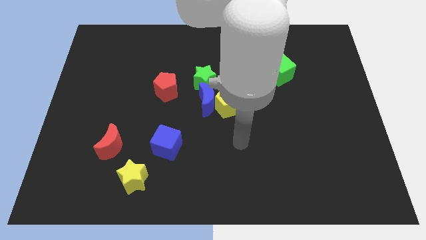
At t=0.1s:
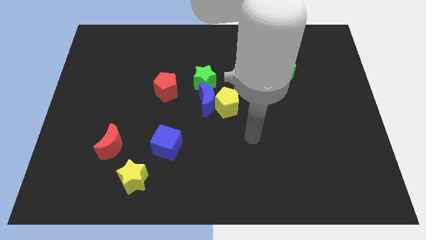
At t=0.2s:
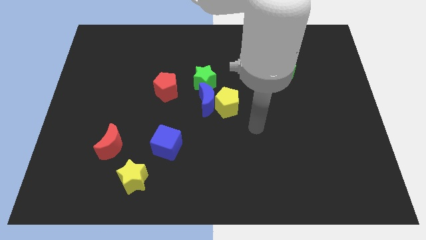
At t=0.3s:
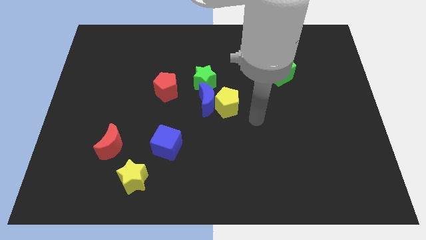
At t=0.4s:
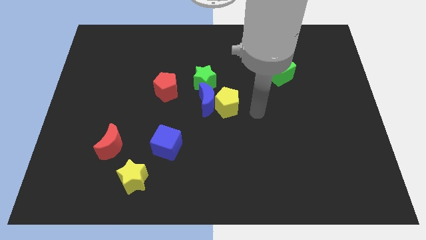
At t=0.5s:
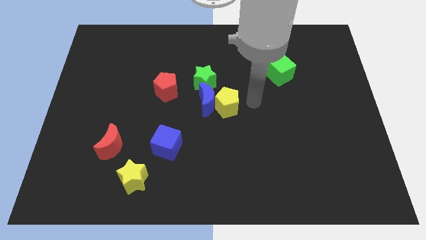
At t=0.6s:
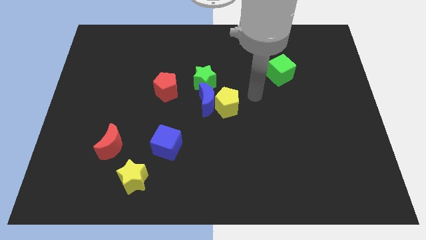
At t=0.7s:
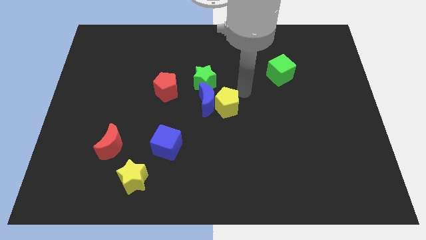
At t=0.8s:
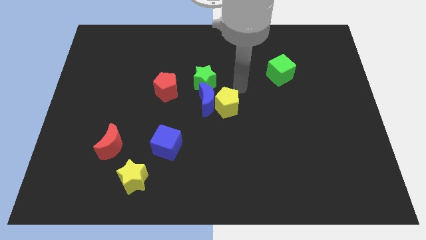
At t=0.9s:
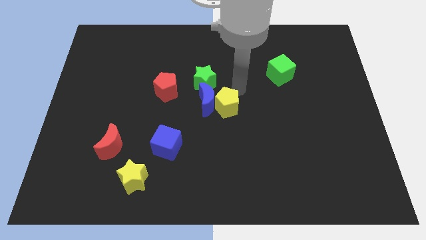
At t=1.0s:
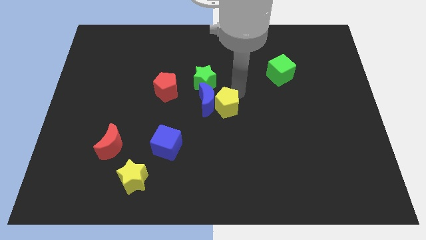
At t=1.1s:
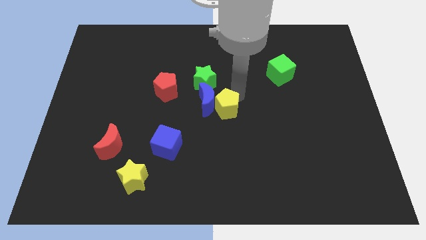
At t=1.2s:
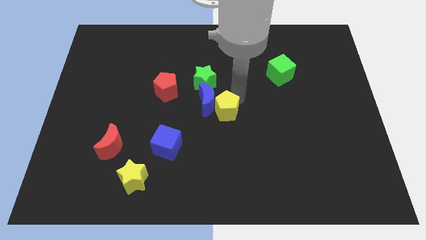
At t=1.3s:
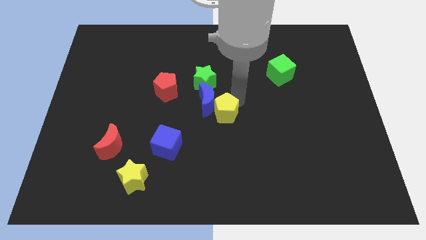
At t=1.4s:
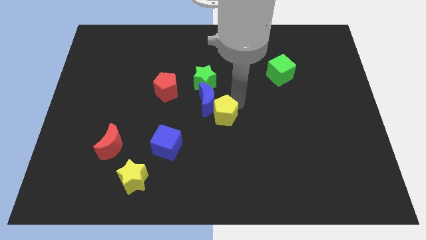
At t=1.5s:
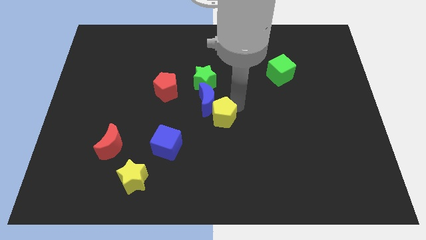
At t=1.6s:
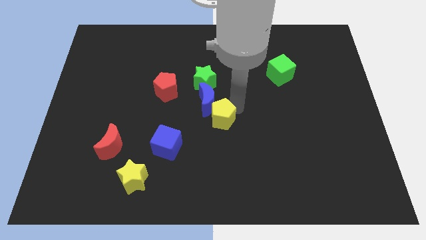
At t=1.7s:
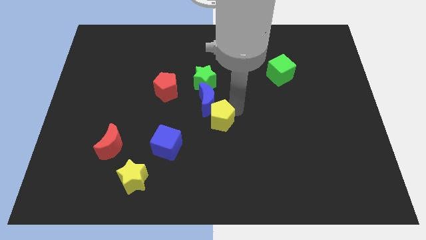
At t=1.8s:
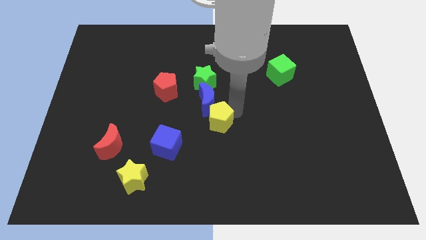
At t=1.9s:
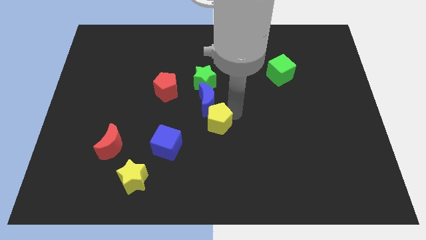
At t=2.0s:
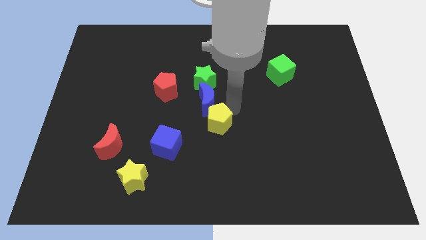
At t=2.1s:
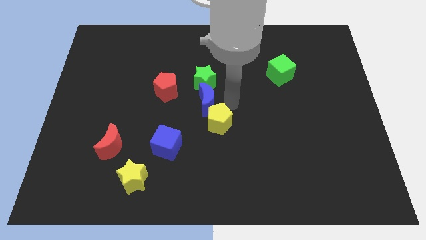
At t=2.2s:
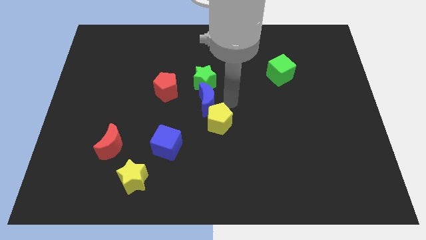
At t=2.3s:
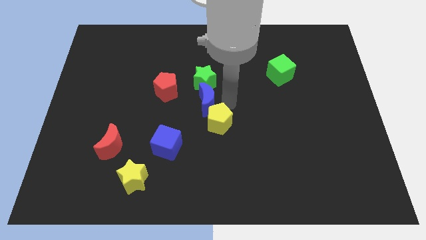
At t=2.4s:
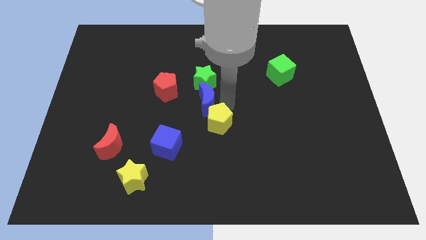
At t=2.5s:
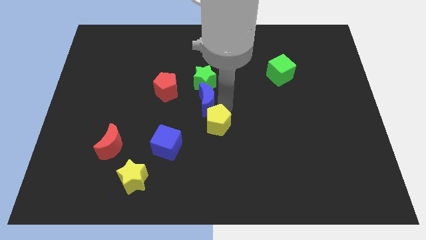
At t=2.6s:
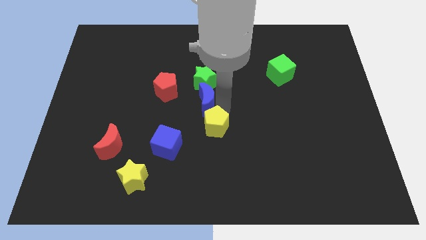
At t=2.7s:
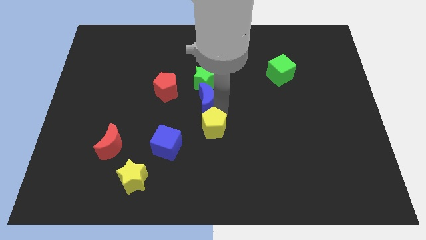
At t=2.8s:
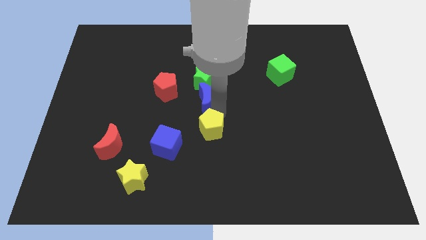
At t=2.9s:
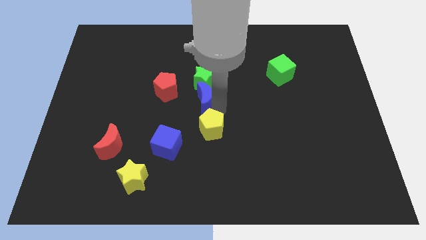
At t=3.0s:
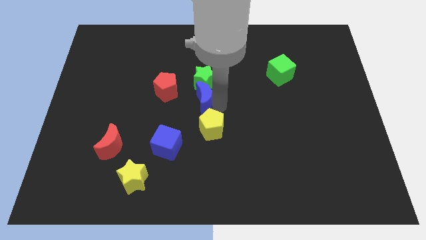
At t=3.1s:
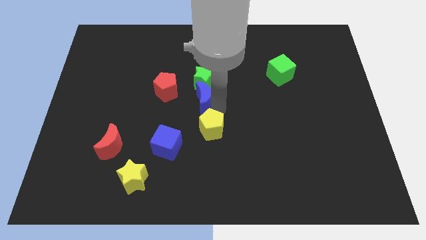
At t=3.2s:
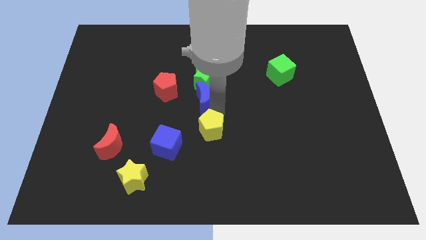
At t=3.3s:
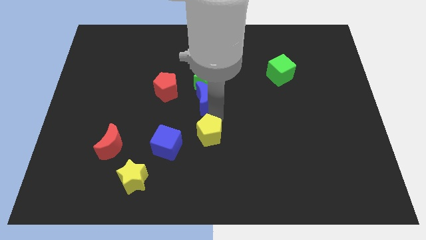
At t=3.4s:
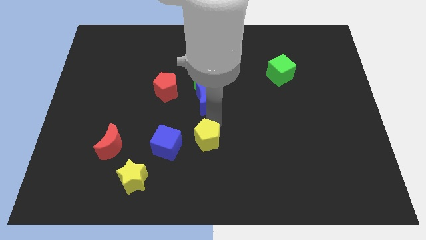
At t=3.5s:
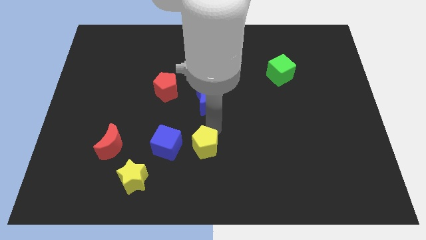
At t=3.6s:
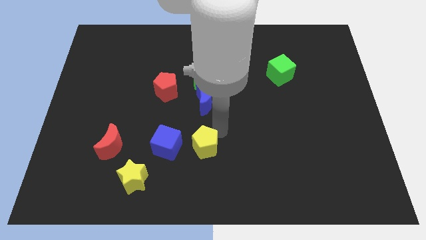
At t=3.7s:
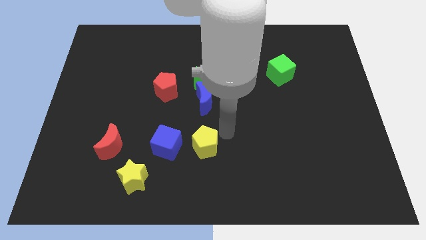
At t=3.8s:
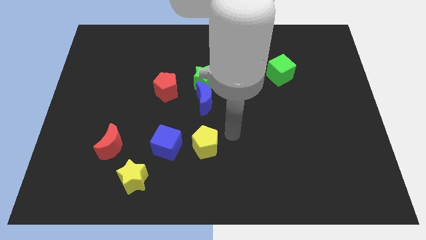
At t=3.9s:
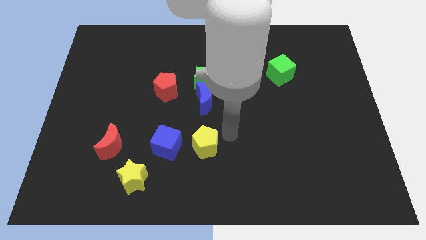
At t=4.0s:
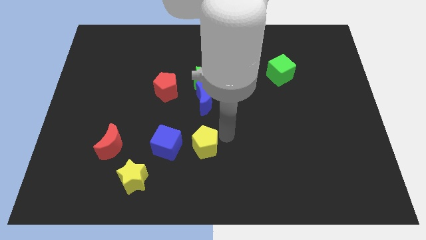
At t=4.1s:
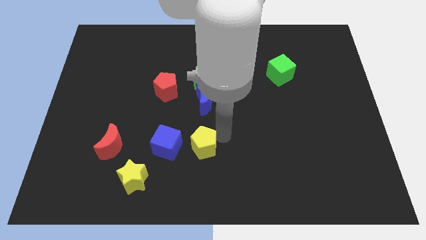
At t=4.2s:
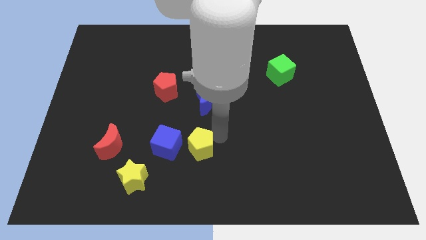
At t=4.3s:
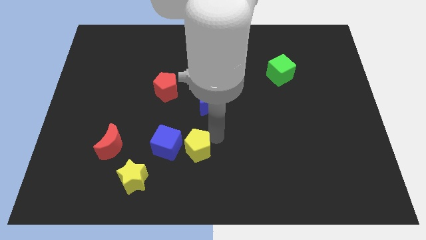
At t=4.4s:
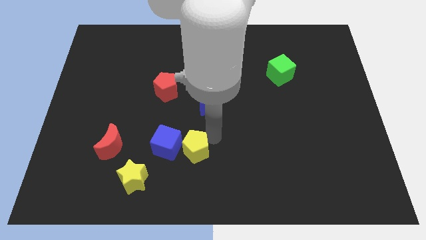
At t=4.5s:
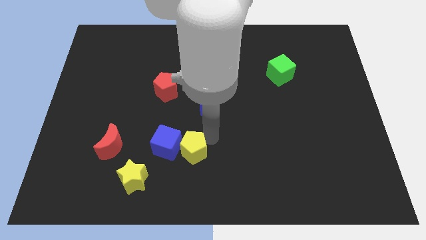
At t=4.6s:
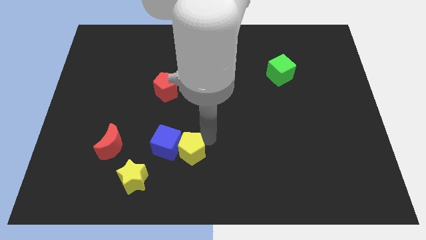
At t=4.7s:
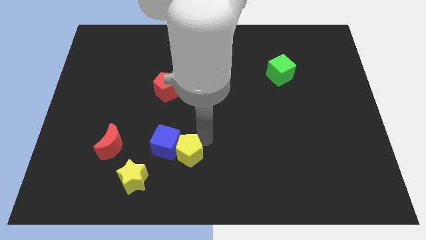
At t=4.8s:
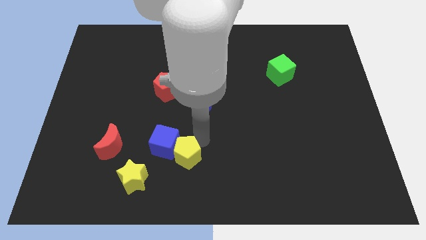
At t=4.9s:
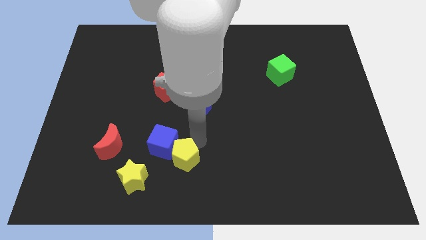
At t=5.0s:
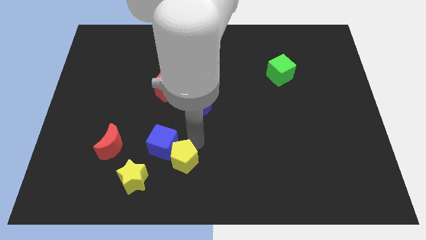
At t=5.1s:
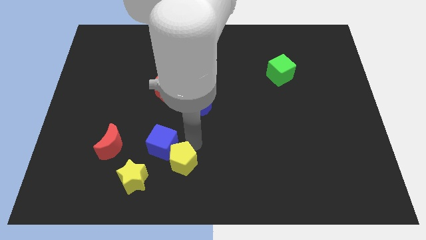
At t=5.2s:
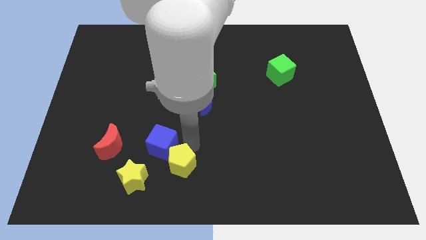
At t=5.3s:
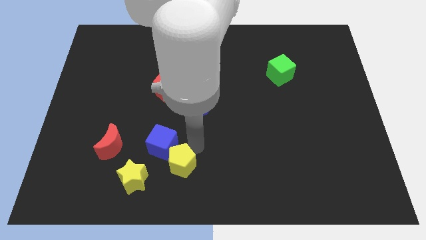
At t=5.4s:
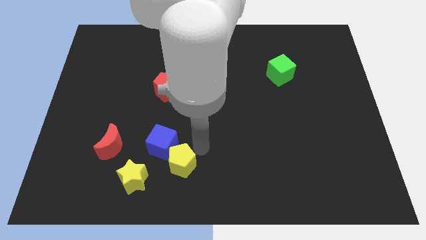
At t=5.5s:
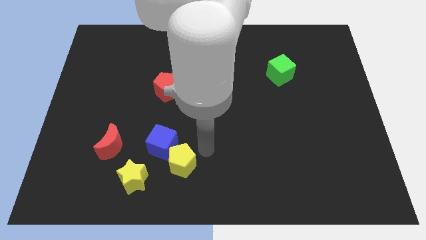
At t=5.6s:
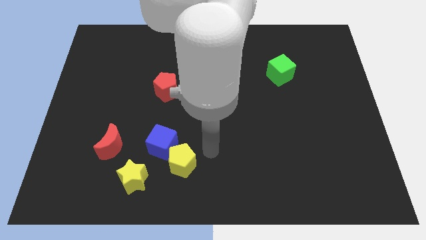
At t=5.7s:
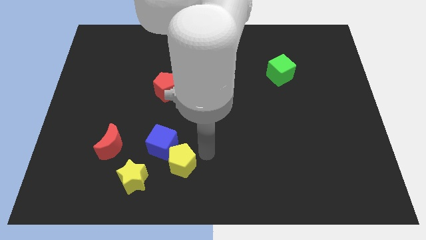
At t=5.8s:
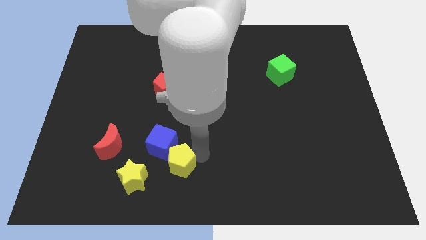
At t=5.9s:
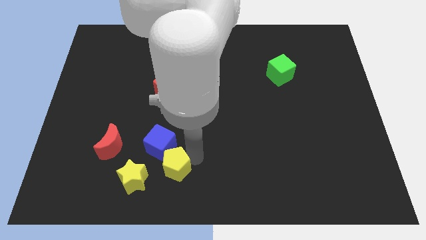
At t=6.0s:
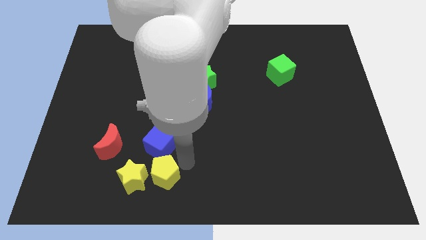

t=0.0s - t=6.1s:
slide the yellow pentagon towards the yellow star

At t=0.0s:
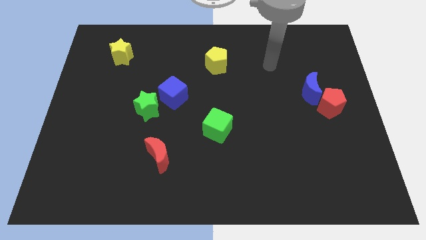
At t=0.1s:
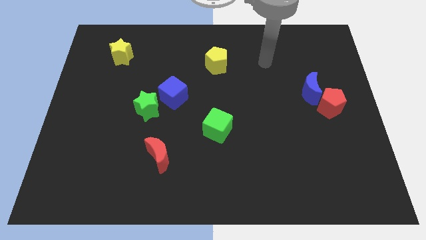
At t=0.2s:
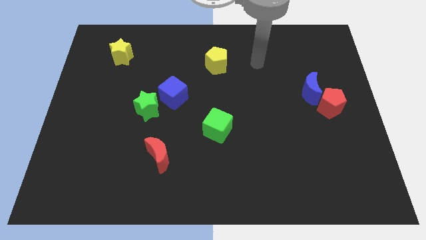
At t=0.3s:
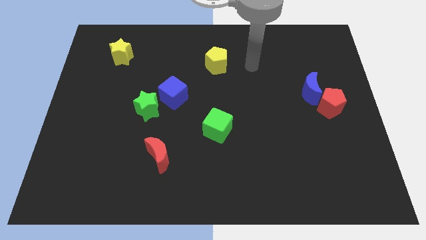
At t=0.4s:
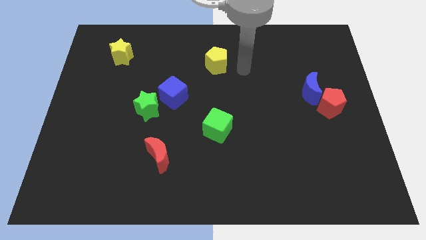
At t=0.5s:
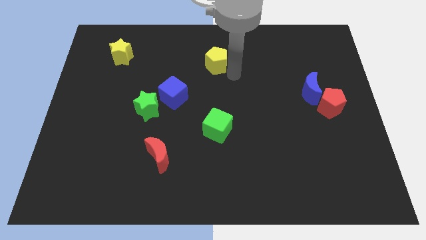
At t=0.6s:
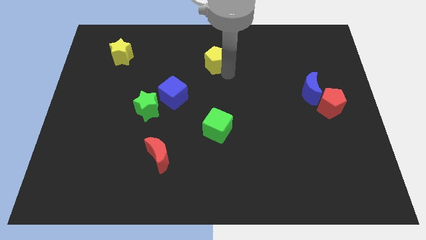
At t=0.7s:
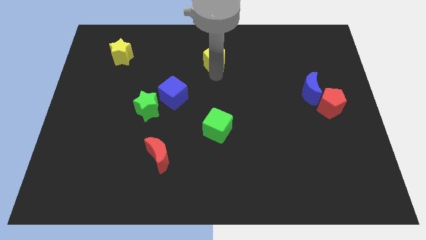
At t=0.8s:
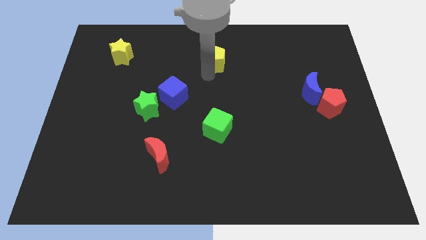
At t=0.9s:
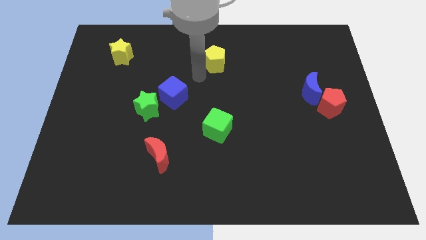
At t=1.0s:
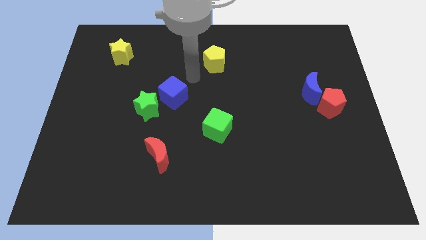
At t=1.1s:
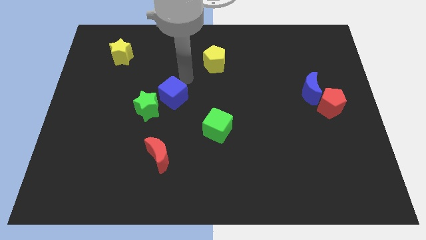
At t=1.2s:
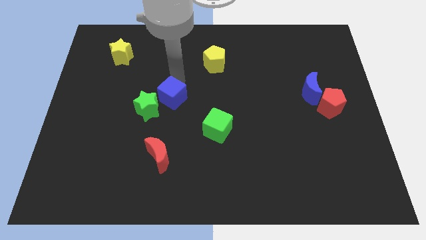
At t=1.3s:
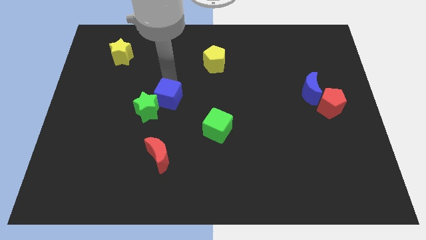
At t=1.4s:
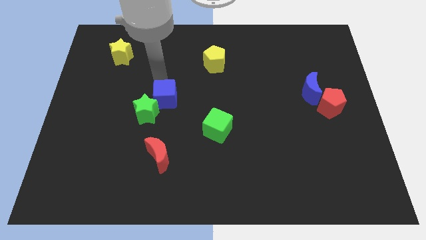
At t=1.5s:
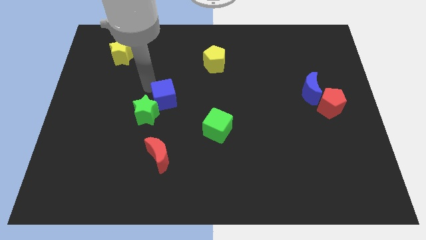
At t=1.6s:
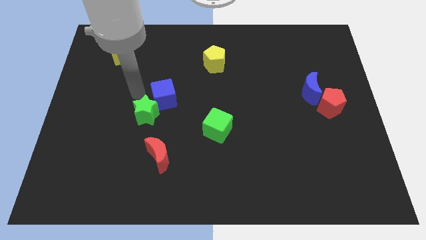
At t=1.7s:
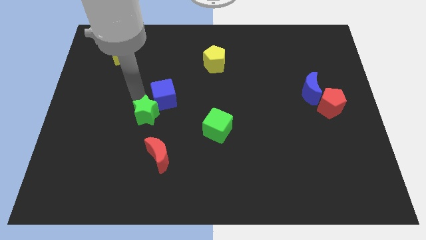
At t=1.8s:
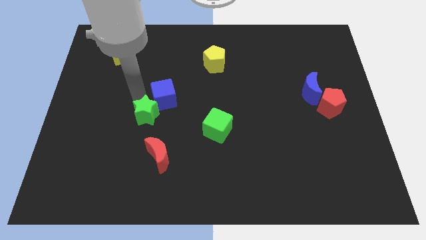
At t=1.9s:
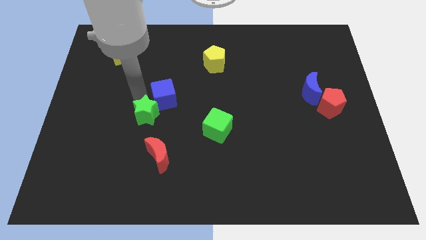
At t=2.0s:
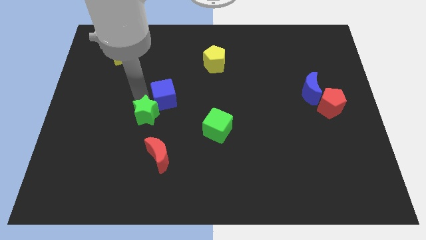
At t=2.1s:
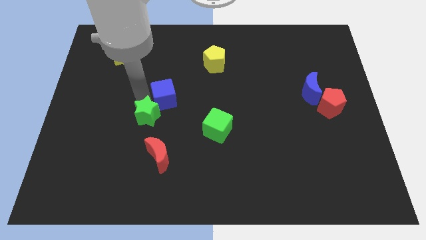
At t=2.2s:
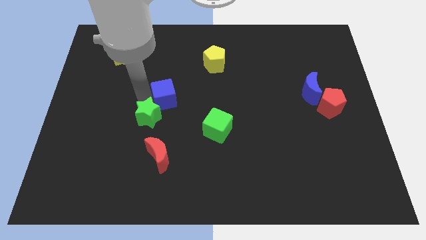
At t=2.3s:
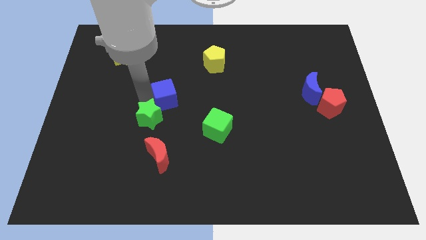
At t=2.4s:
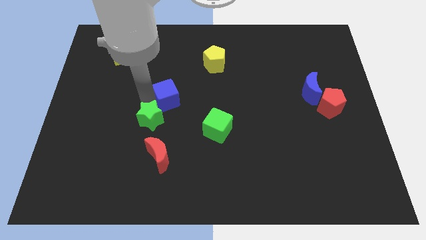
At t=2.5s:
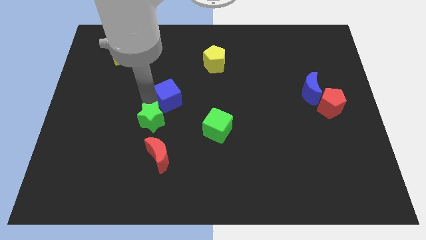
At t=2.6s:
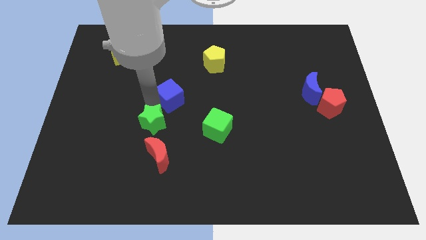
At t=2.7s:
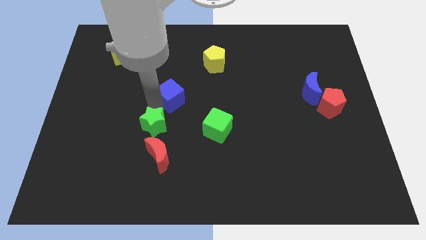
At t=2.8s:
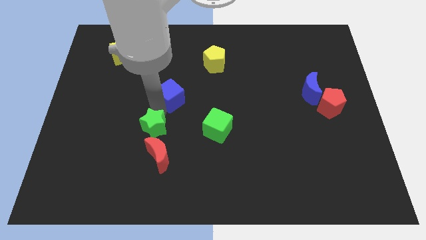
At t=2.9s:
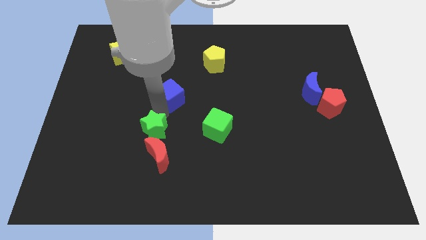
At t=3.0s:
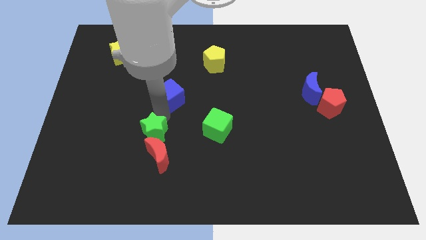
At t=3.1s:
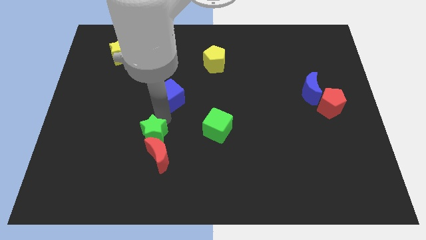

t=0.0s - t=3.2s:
put the green star close to the red moon
